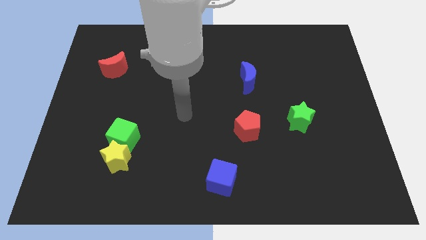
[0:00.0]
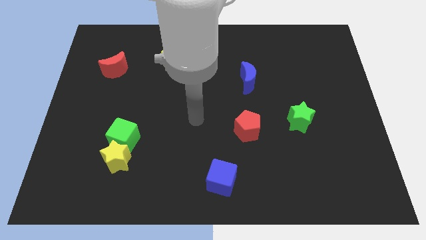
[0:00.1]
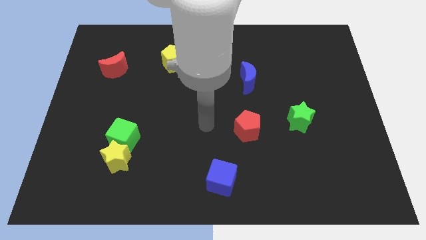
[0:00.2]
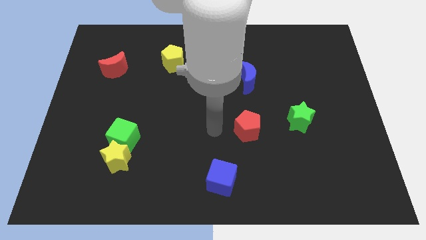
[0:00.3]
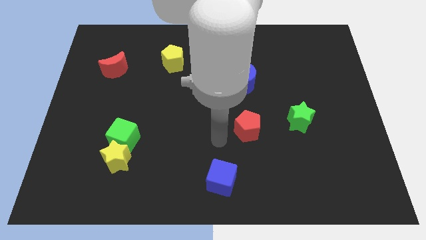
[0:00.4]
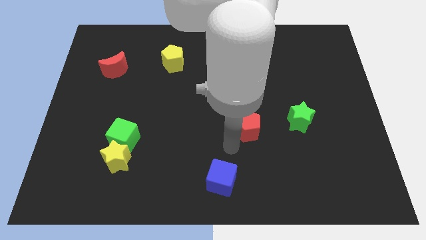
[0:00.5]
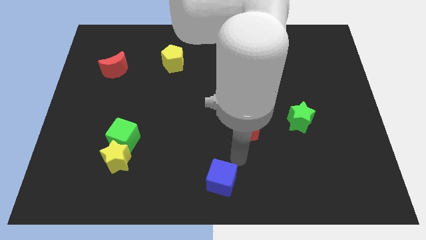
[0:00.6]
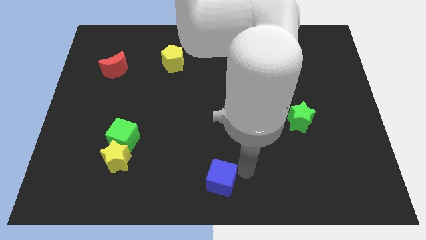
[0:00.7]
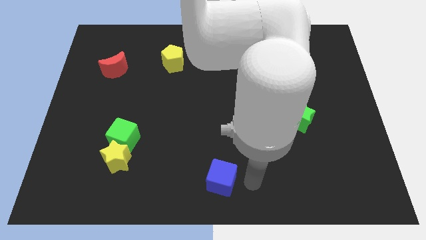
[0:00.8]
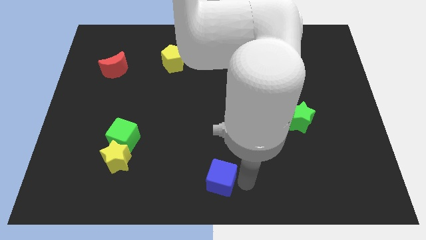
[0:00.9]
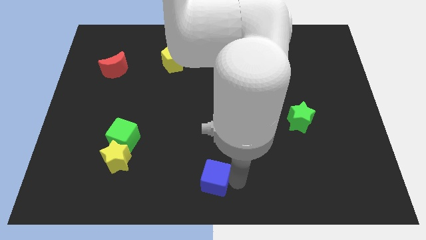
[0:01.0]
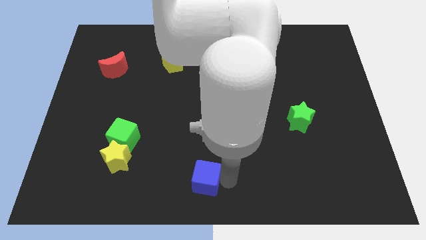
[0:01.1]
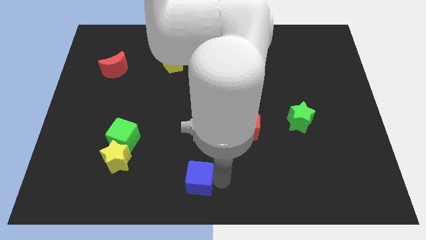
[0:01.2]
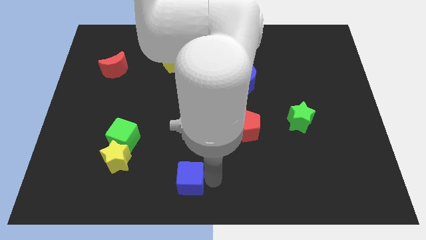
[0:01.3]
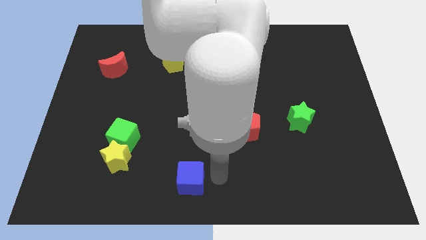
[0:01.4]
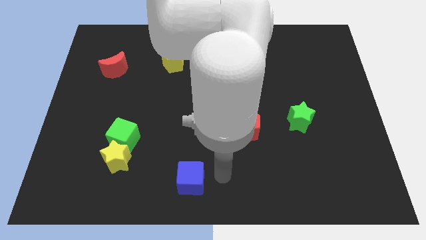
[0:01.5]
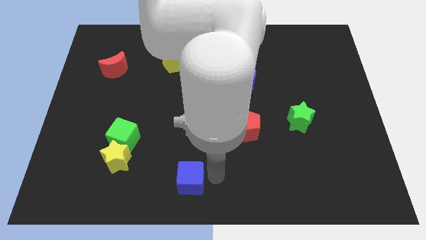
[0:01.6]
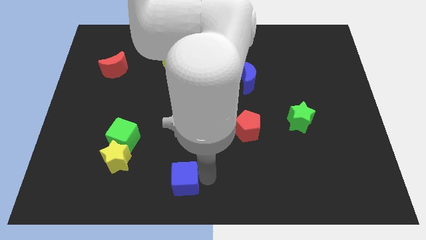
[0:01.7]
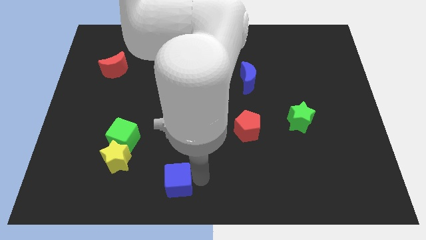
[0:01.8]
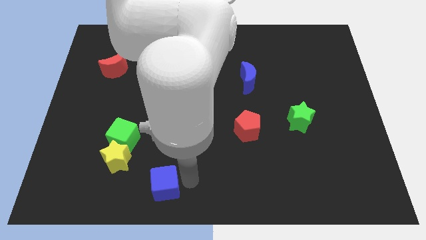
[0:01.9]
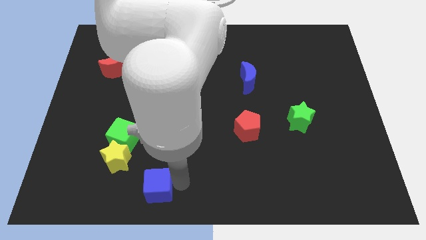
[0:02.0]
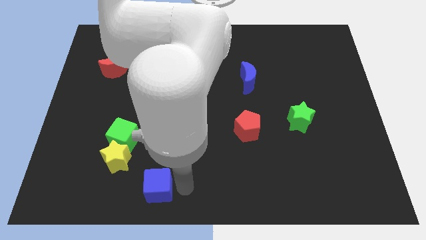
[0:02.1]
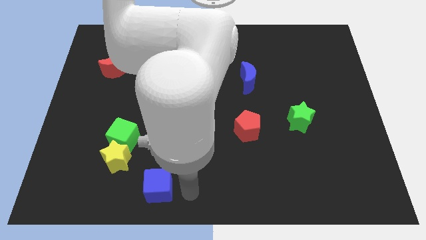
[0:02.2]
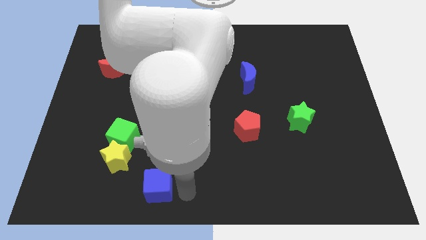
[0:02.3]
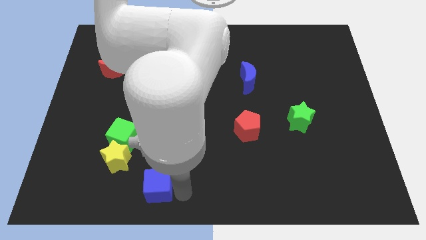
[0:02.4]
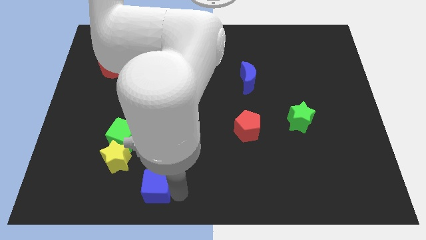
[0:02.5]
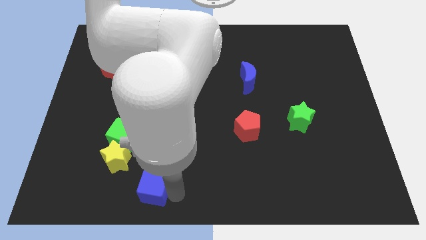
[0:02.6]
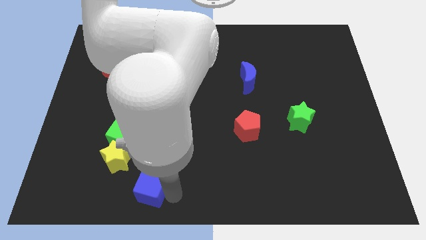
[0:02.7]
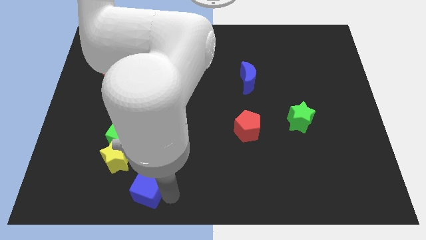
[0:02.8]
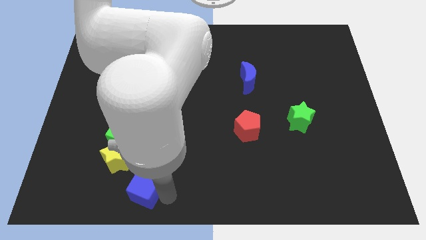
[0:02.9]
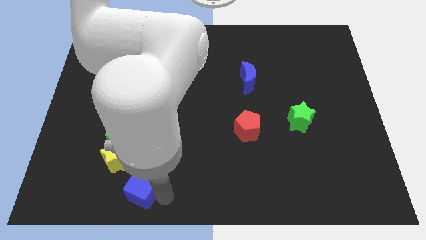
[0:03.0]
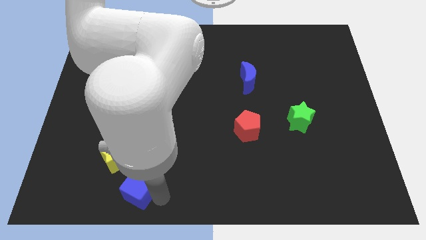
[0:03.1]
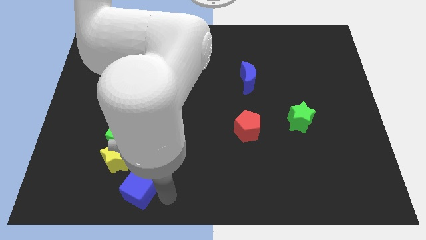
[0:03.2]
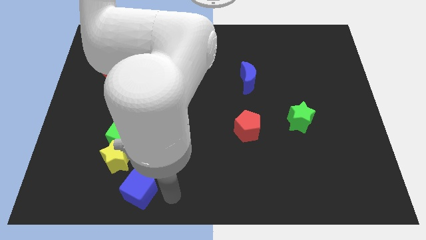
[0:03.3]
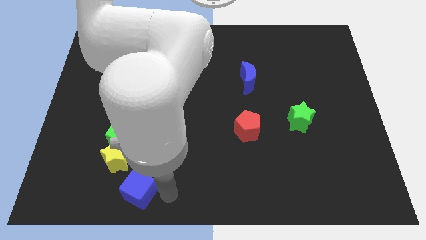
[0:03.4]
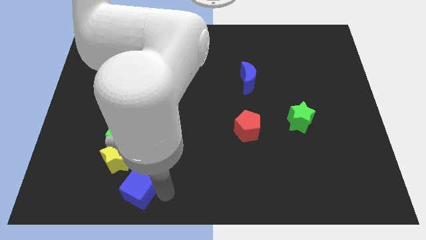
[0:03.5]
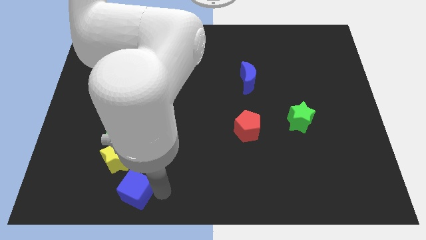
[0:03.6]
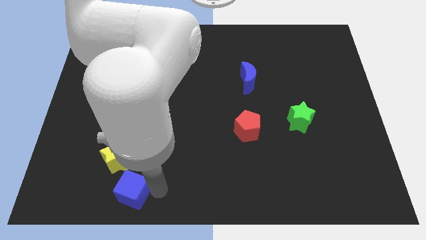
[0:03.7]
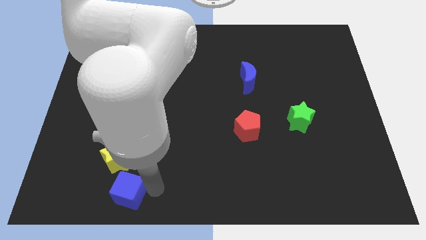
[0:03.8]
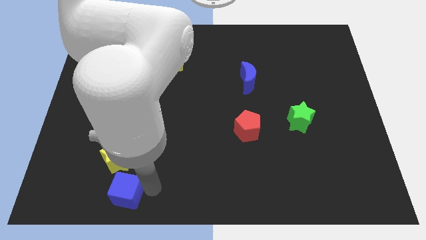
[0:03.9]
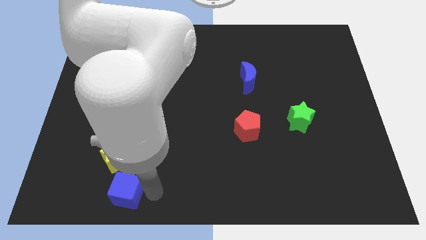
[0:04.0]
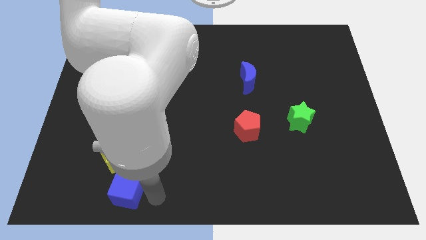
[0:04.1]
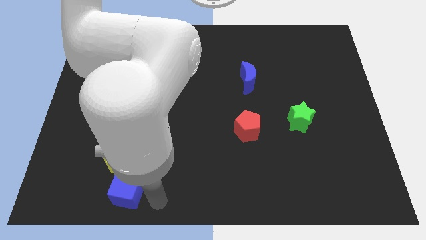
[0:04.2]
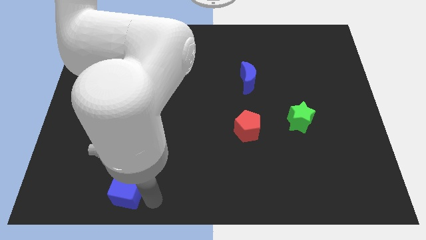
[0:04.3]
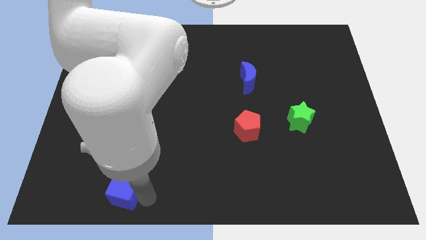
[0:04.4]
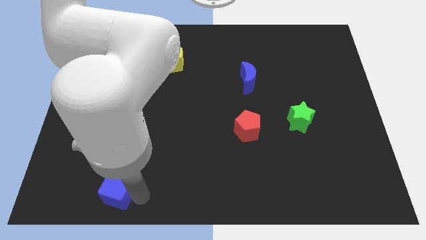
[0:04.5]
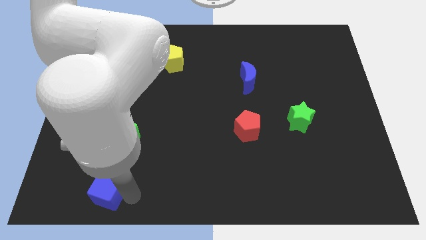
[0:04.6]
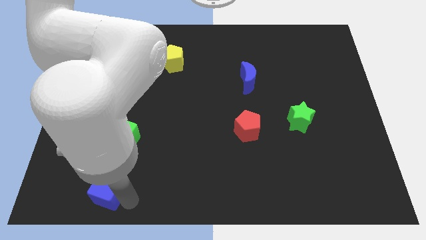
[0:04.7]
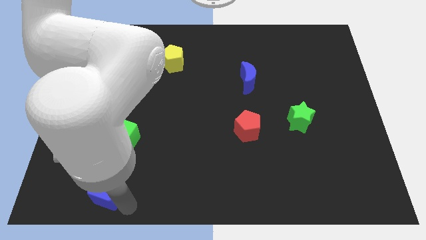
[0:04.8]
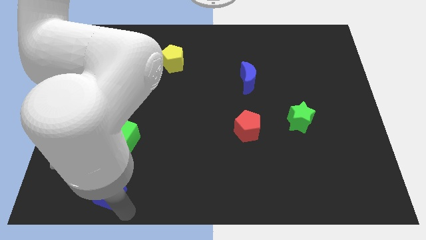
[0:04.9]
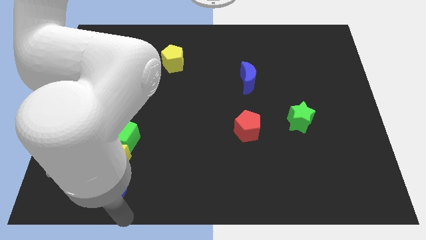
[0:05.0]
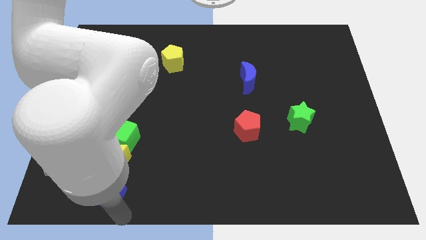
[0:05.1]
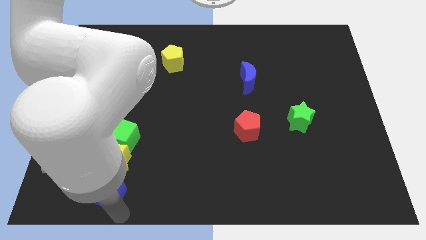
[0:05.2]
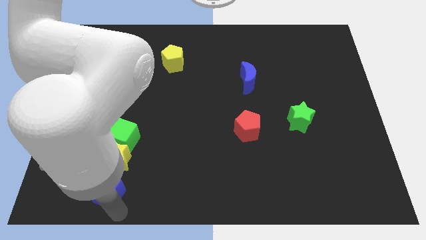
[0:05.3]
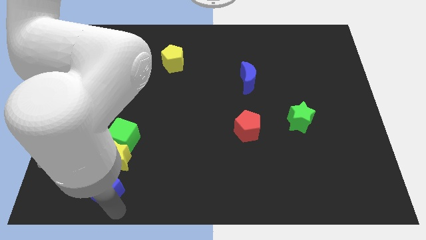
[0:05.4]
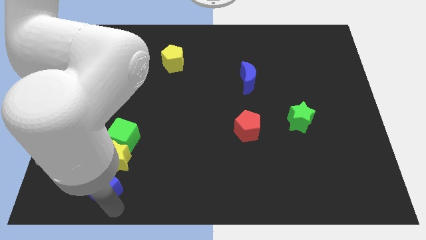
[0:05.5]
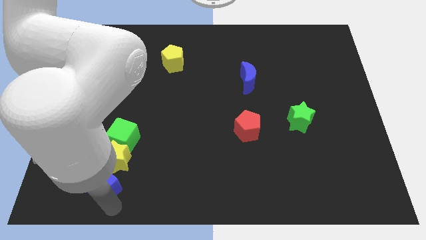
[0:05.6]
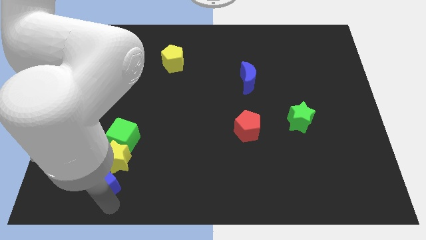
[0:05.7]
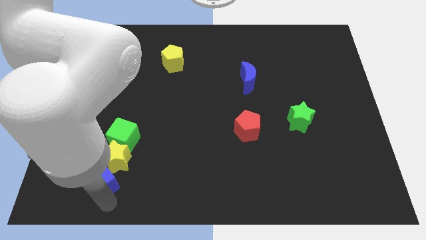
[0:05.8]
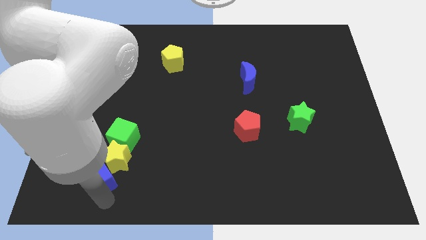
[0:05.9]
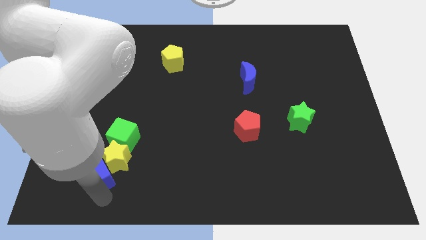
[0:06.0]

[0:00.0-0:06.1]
put the blue cube to the bottom left of the green cube

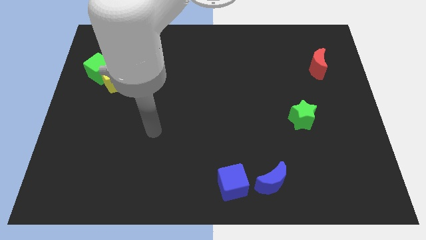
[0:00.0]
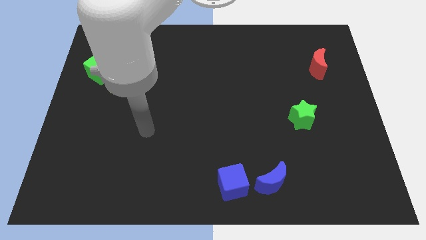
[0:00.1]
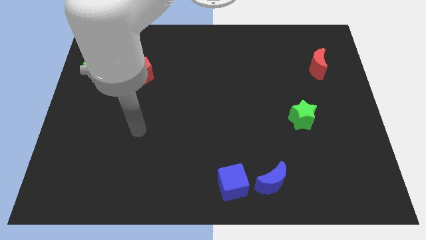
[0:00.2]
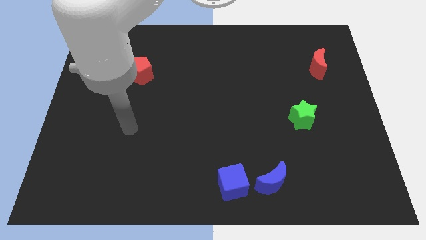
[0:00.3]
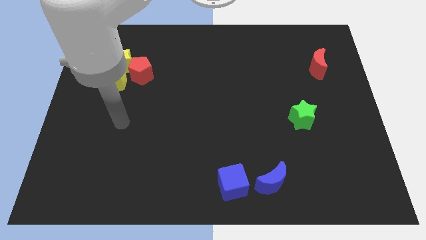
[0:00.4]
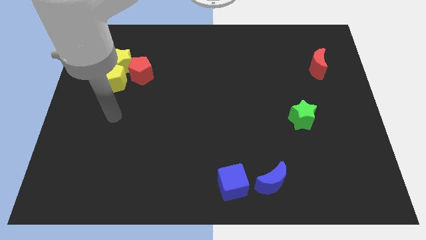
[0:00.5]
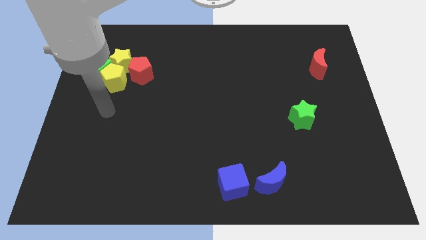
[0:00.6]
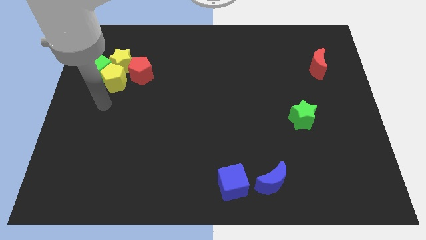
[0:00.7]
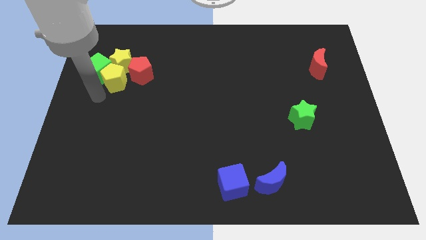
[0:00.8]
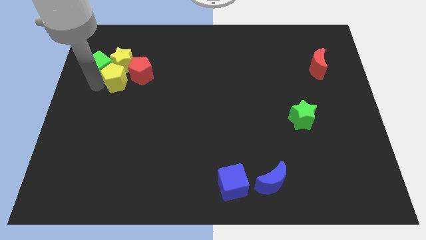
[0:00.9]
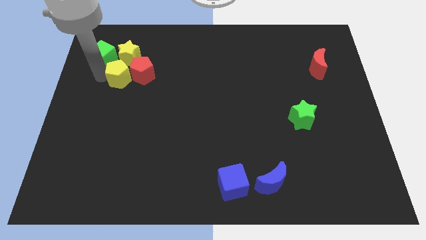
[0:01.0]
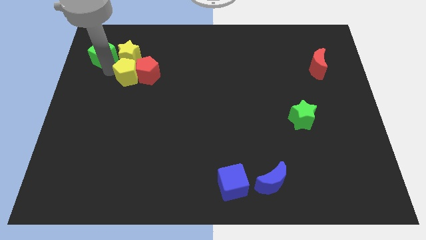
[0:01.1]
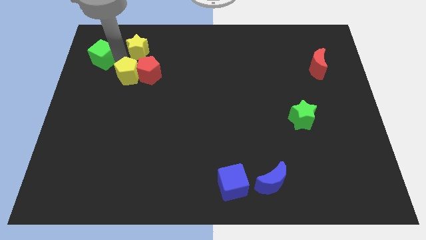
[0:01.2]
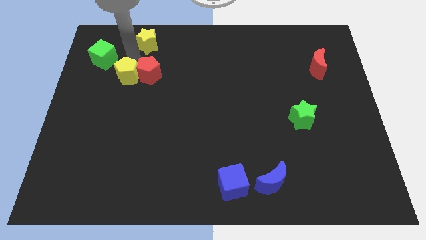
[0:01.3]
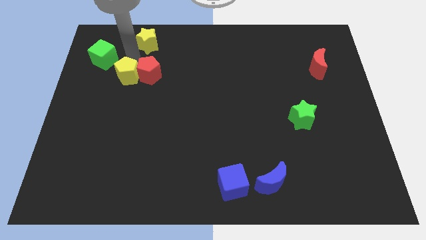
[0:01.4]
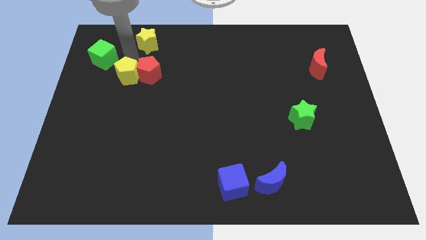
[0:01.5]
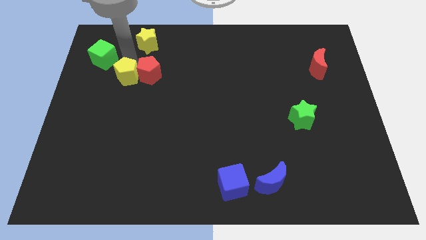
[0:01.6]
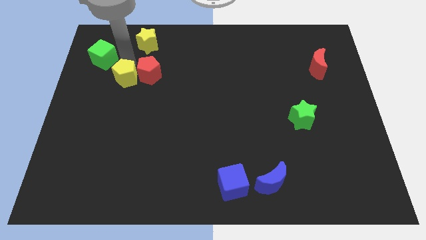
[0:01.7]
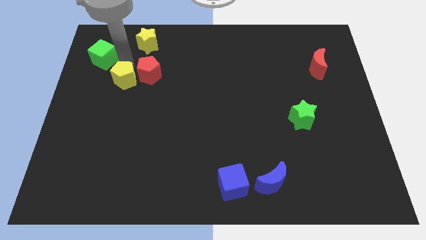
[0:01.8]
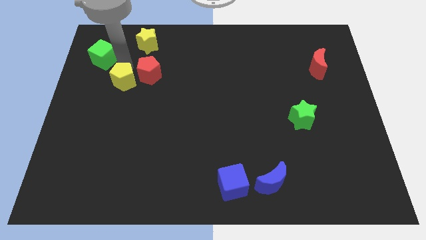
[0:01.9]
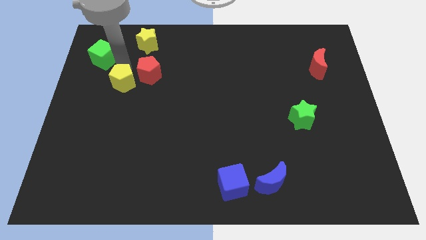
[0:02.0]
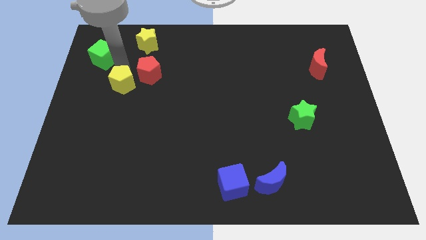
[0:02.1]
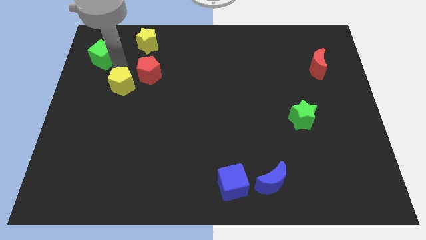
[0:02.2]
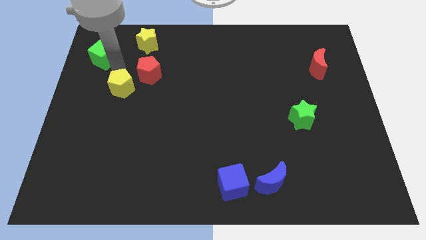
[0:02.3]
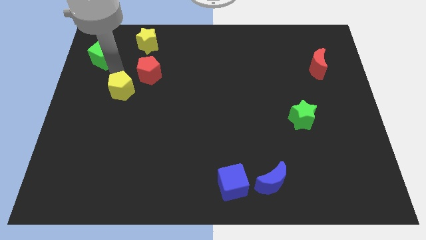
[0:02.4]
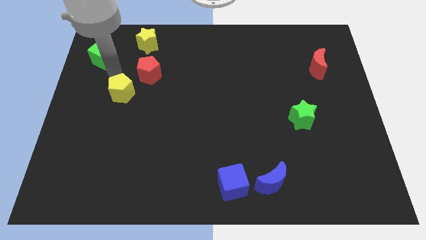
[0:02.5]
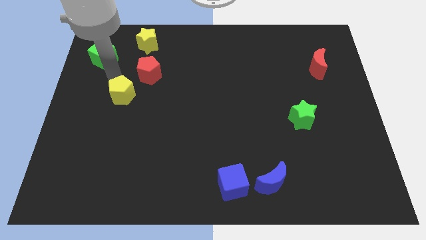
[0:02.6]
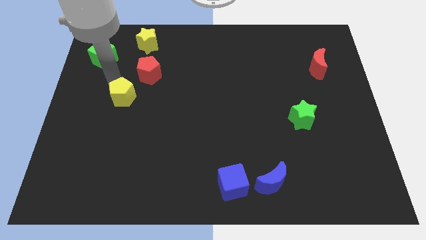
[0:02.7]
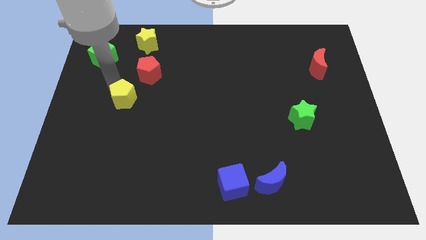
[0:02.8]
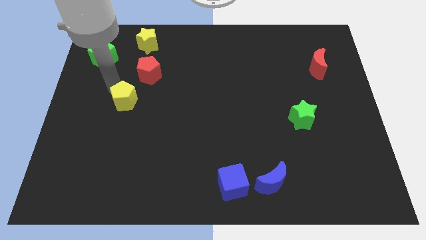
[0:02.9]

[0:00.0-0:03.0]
push the yellow pentagon below the red pentagon
